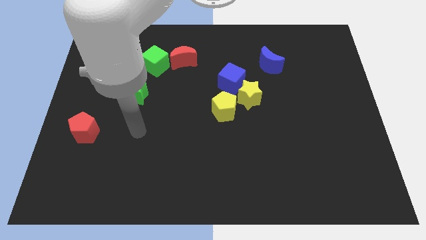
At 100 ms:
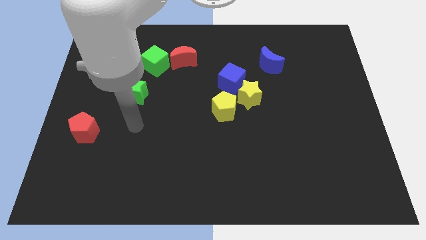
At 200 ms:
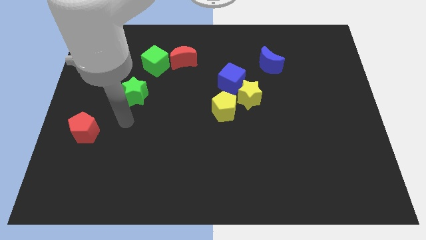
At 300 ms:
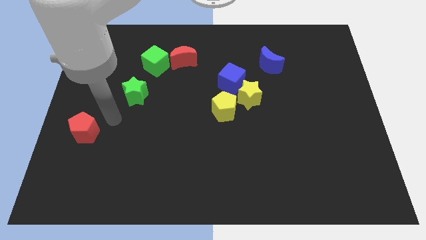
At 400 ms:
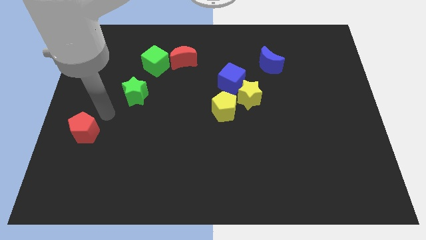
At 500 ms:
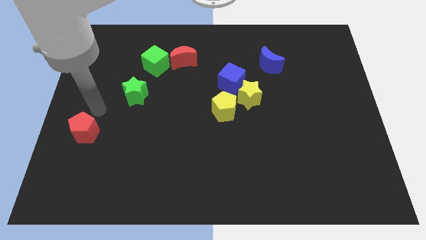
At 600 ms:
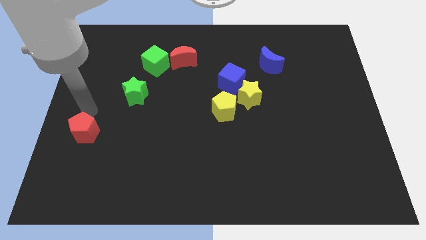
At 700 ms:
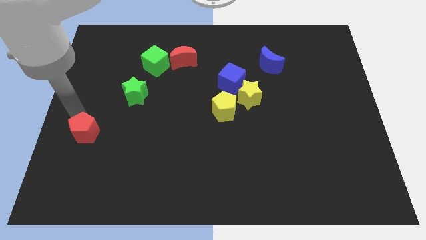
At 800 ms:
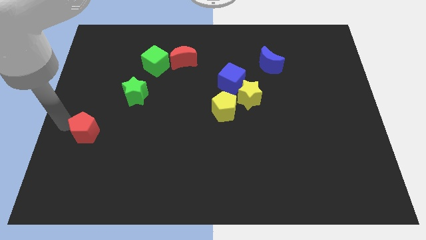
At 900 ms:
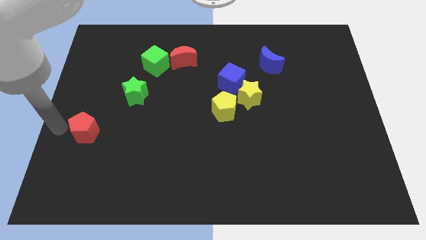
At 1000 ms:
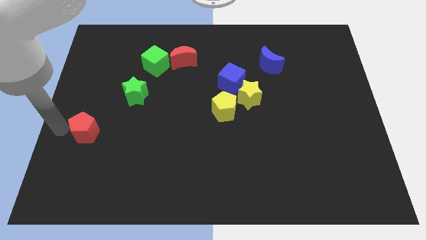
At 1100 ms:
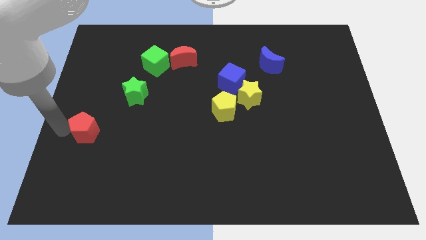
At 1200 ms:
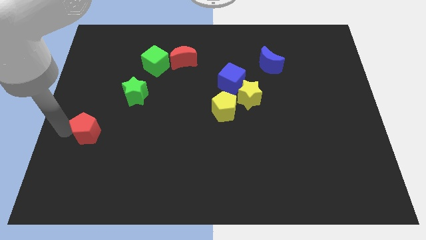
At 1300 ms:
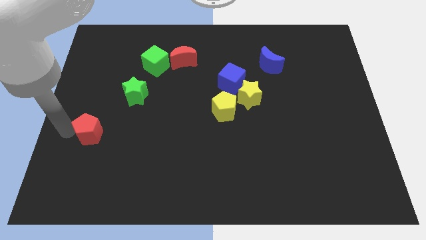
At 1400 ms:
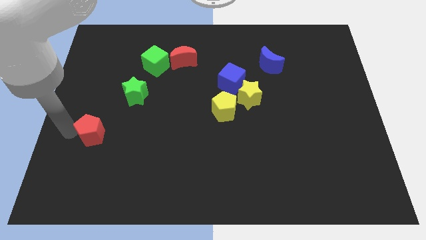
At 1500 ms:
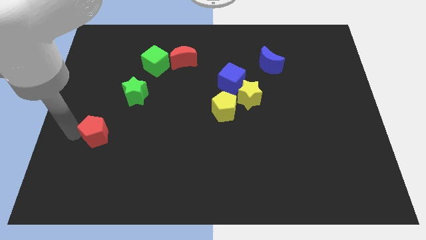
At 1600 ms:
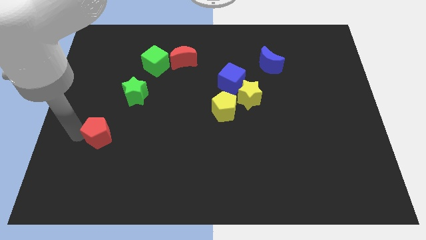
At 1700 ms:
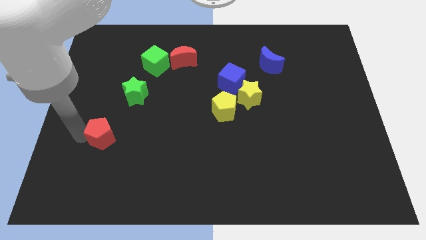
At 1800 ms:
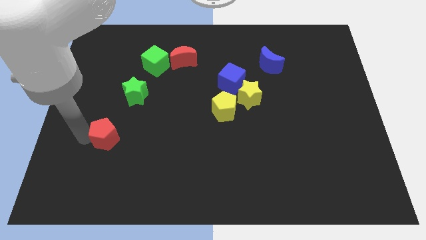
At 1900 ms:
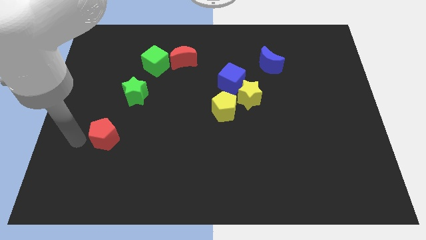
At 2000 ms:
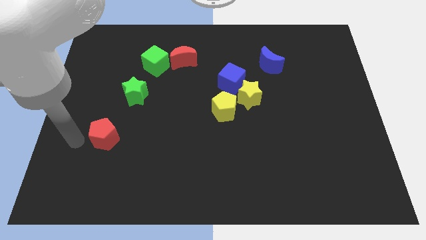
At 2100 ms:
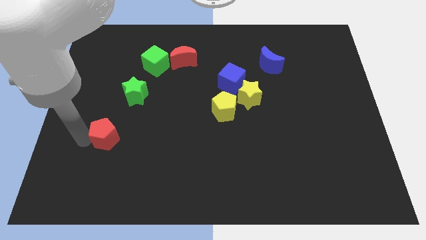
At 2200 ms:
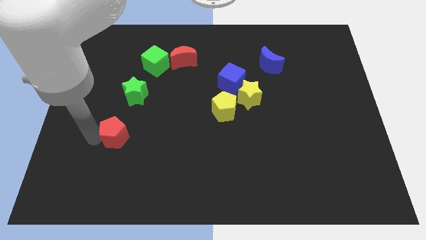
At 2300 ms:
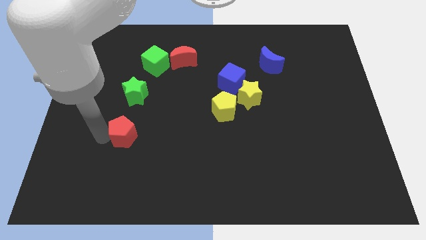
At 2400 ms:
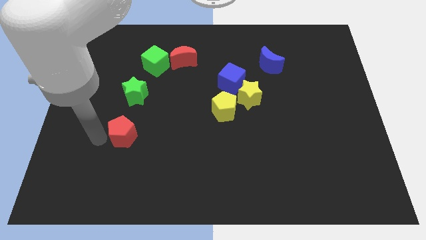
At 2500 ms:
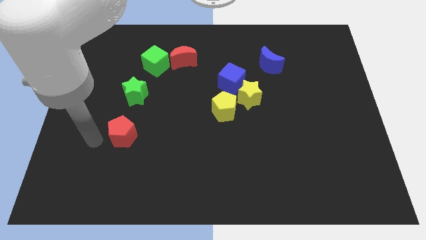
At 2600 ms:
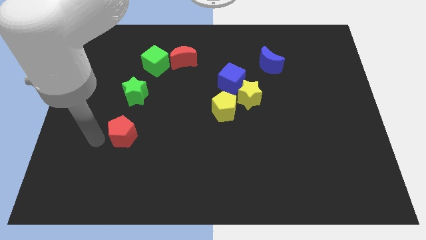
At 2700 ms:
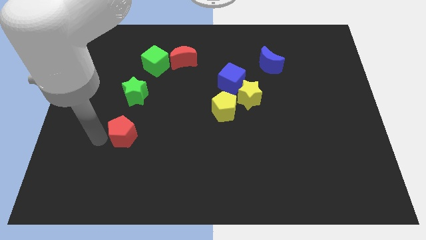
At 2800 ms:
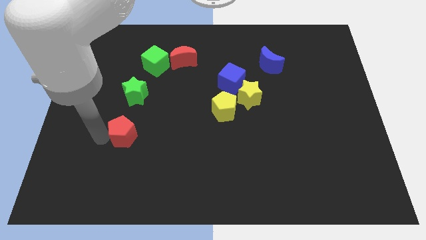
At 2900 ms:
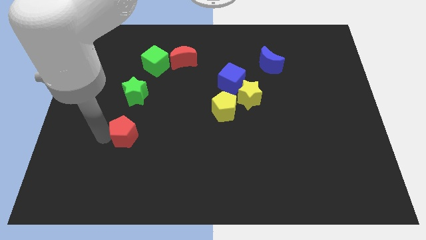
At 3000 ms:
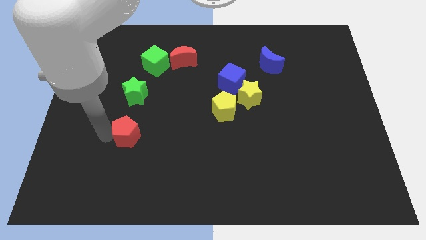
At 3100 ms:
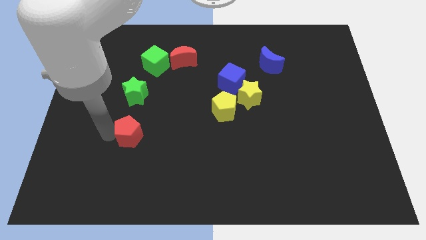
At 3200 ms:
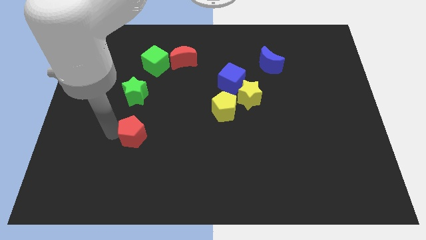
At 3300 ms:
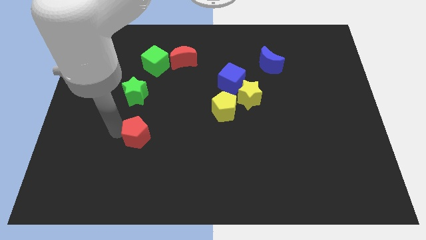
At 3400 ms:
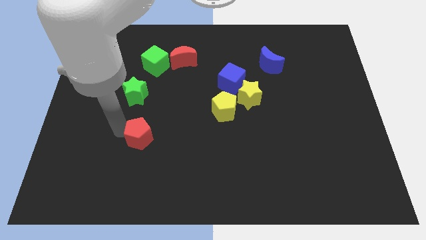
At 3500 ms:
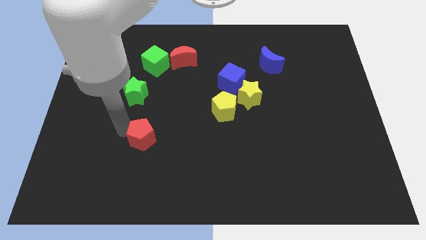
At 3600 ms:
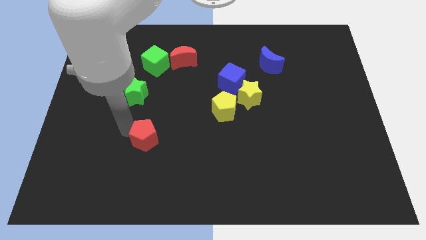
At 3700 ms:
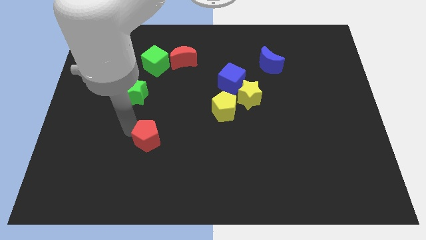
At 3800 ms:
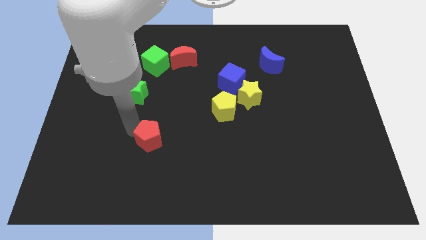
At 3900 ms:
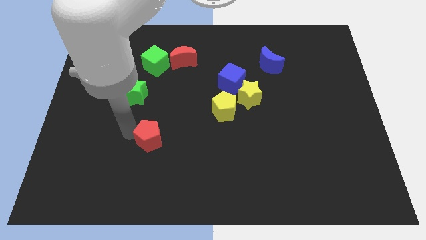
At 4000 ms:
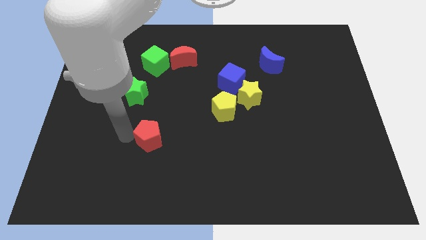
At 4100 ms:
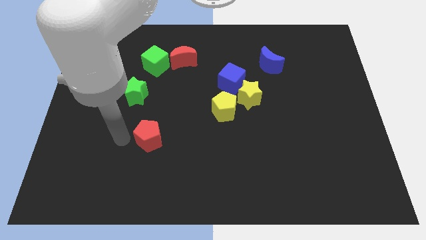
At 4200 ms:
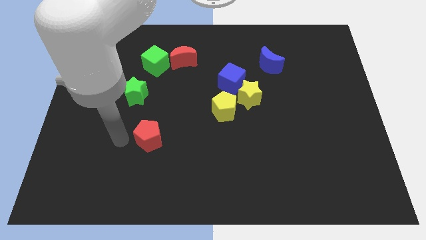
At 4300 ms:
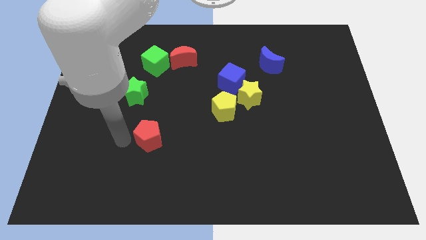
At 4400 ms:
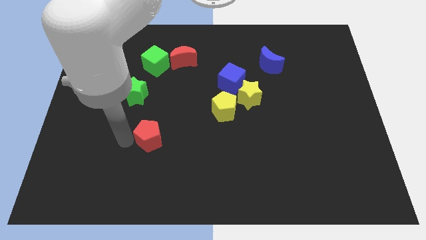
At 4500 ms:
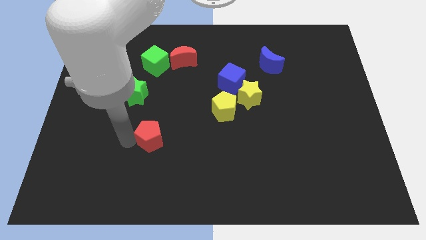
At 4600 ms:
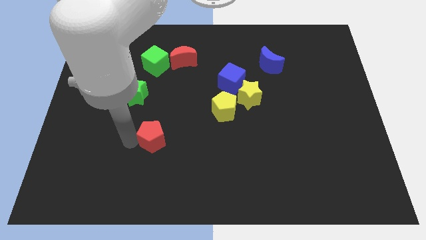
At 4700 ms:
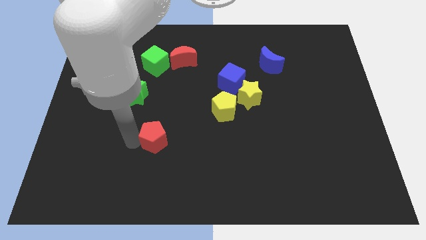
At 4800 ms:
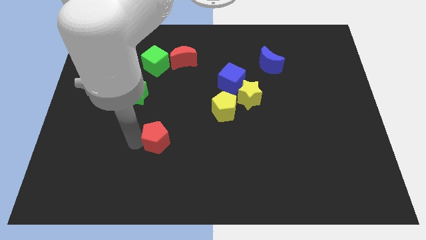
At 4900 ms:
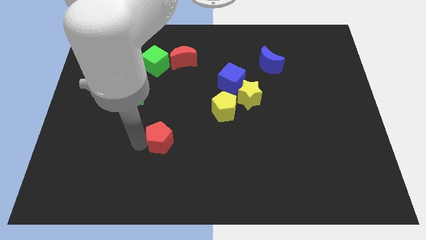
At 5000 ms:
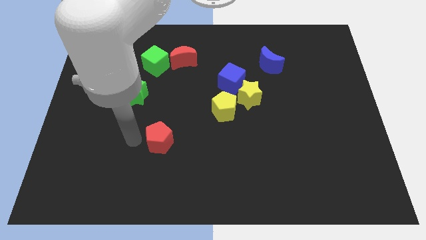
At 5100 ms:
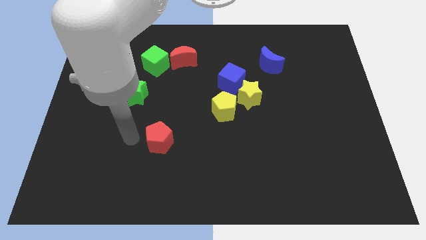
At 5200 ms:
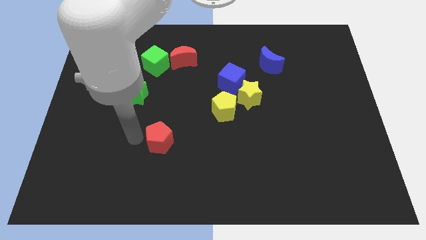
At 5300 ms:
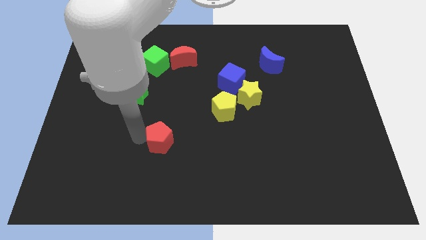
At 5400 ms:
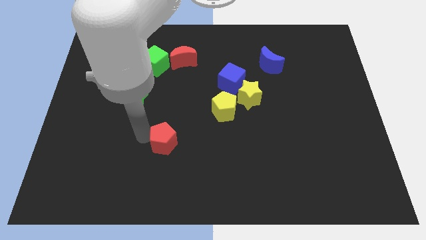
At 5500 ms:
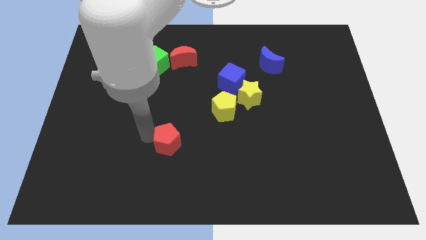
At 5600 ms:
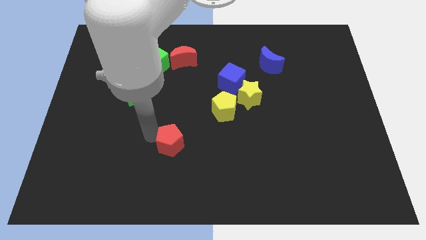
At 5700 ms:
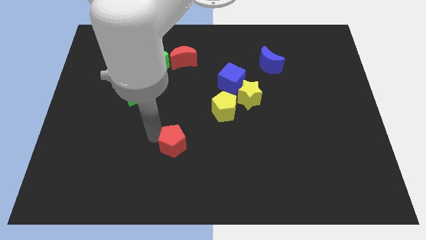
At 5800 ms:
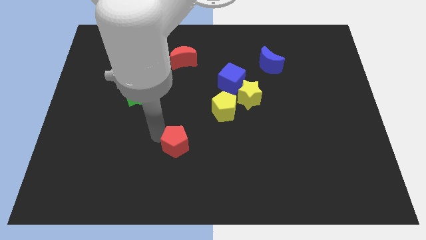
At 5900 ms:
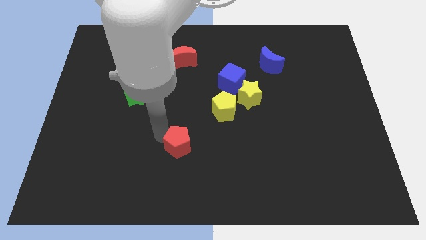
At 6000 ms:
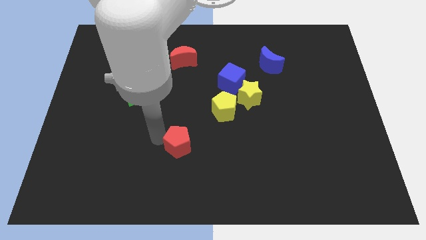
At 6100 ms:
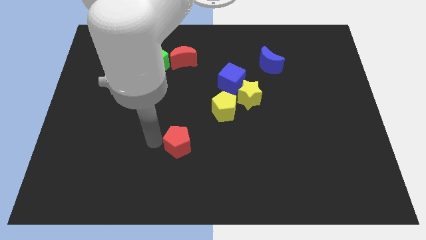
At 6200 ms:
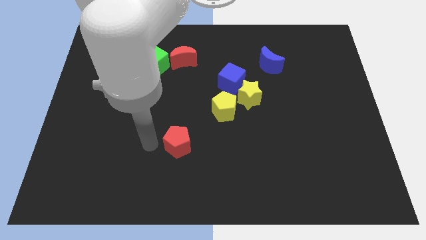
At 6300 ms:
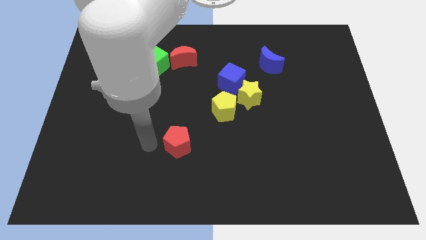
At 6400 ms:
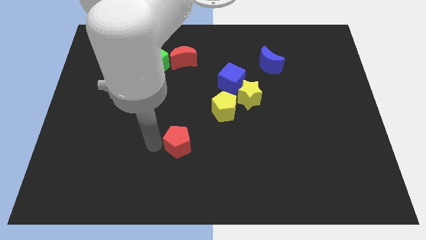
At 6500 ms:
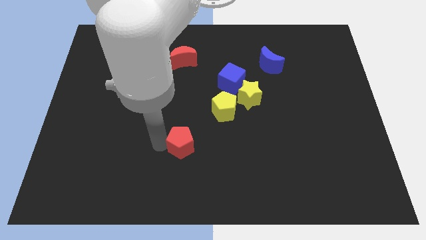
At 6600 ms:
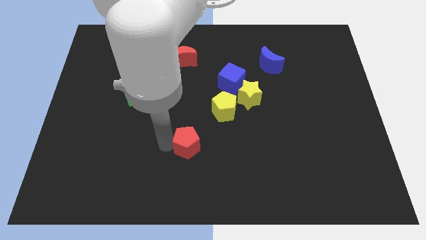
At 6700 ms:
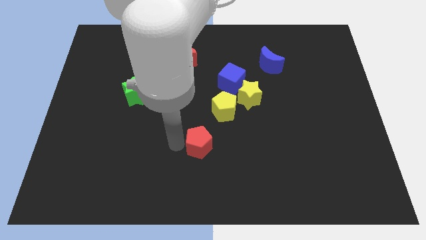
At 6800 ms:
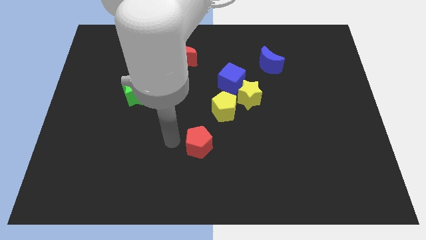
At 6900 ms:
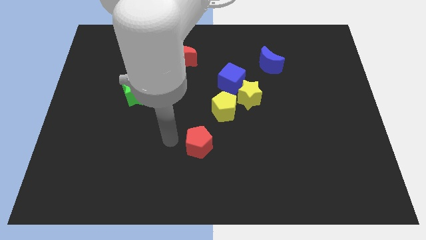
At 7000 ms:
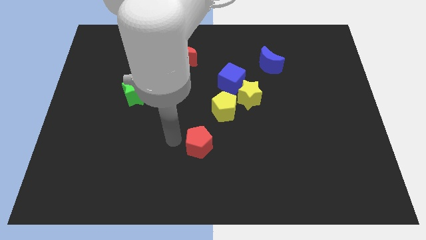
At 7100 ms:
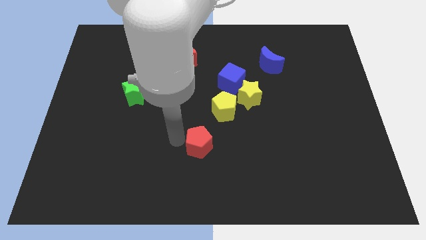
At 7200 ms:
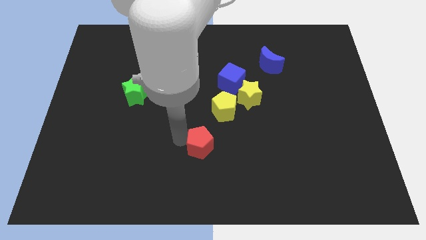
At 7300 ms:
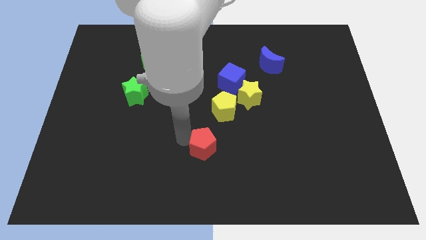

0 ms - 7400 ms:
slide the red pentagon to the bottom side of the yellow pentagon
